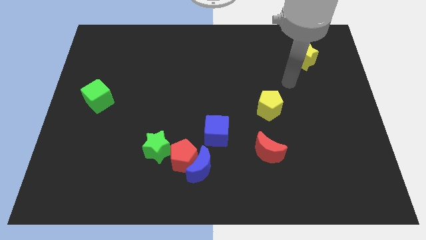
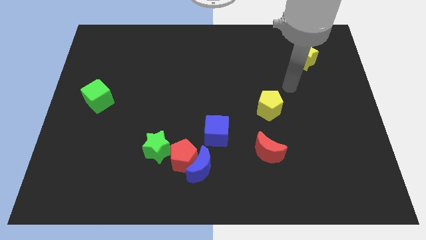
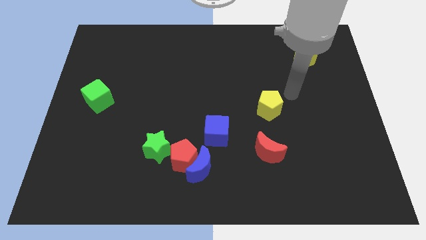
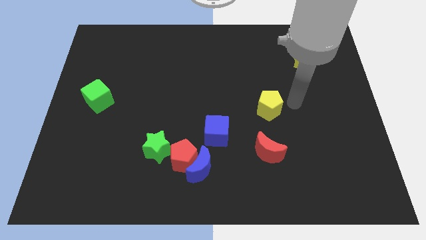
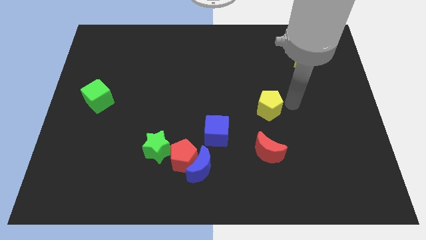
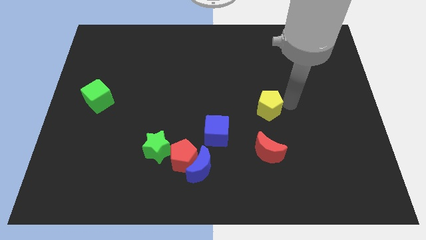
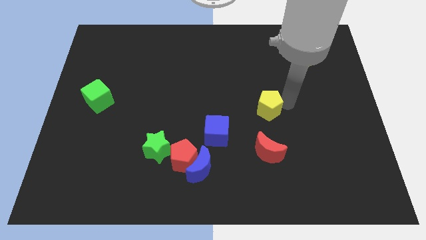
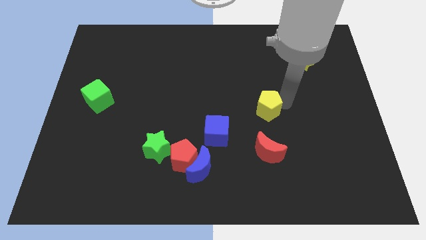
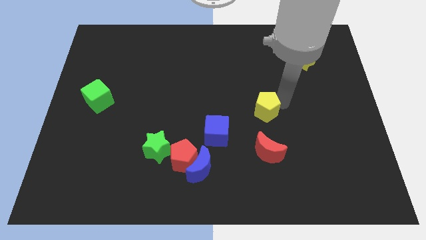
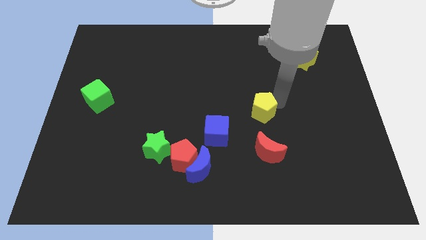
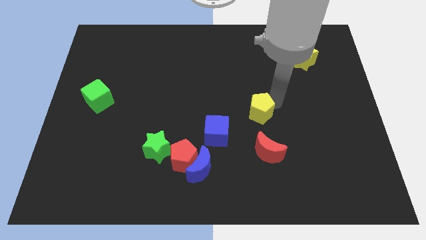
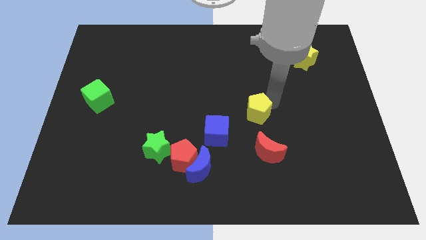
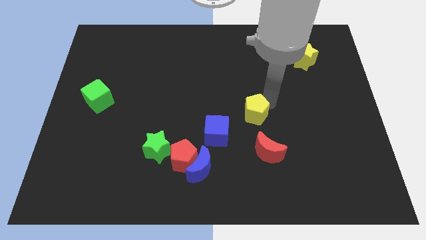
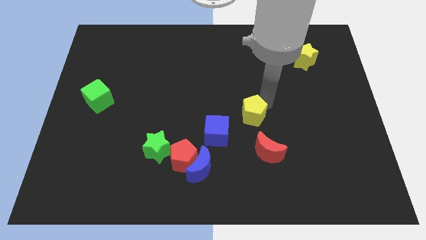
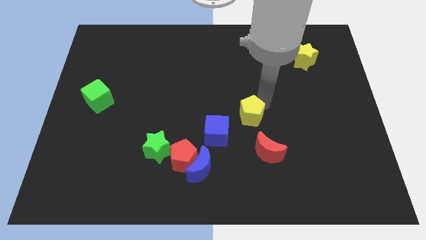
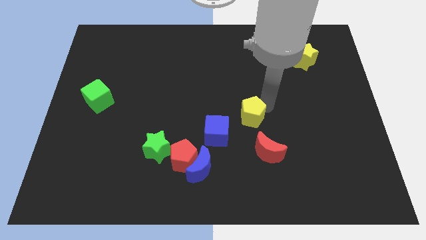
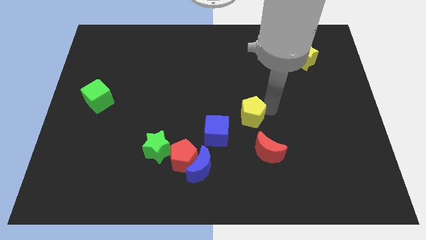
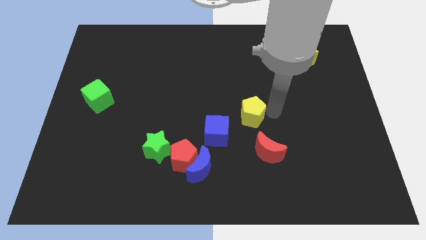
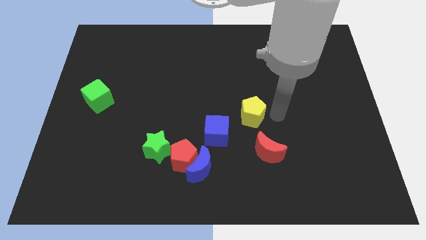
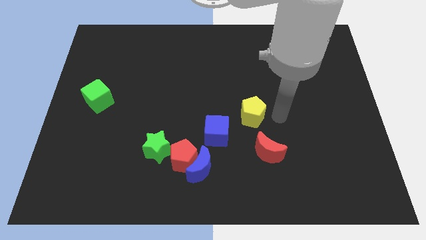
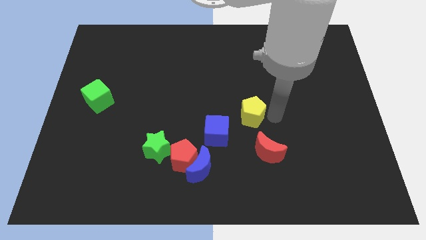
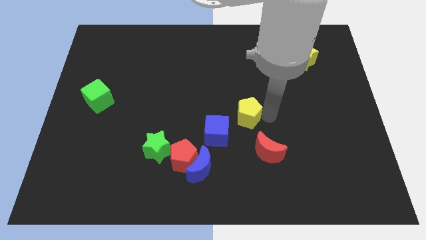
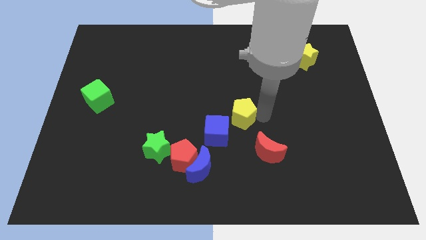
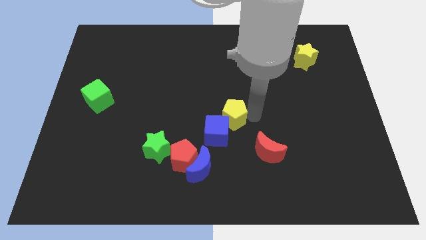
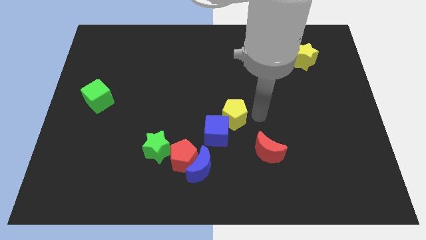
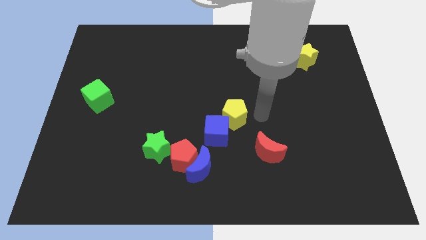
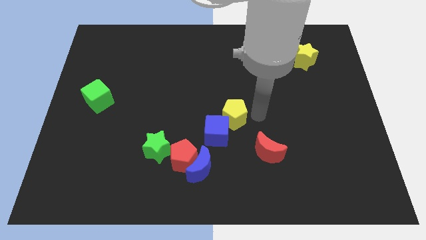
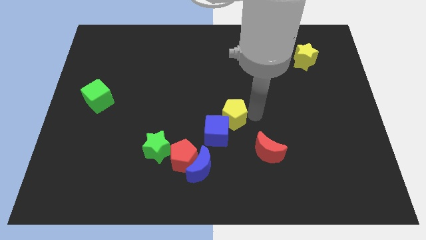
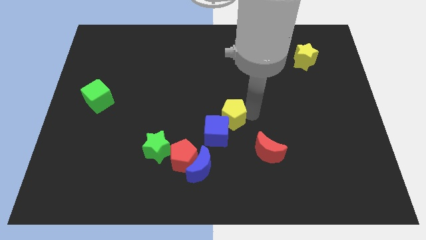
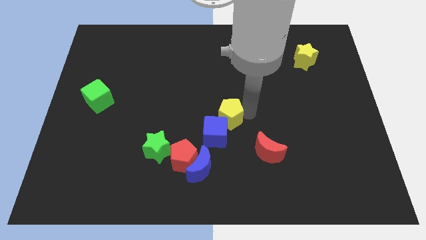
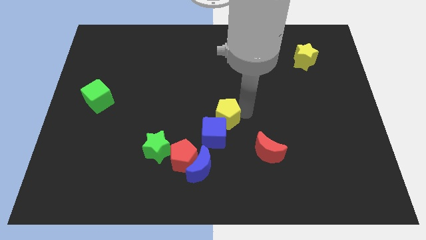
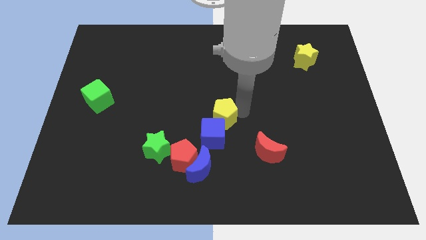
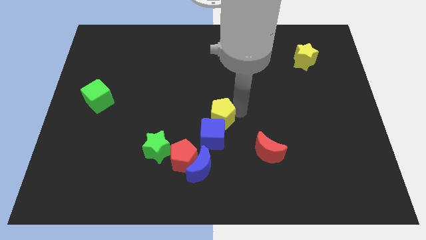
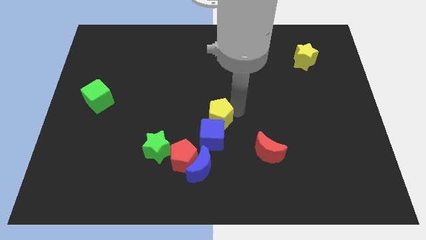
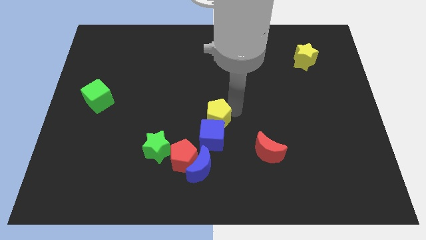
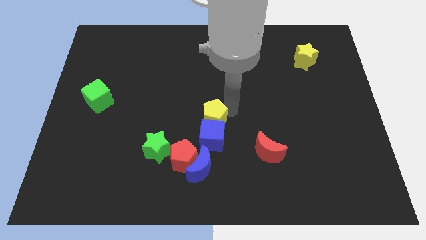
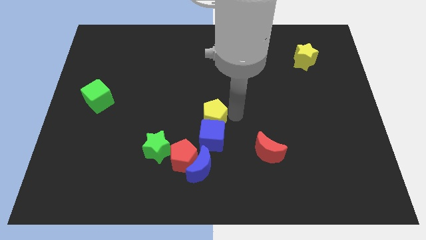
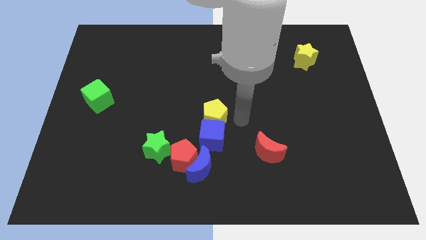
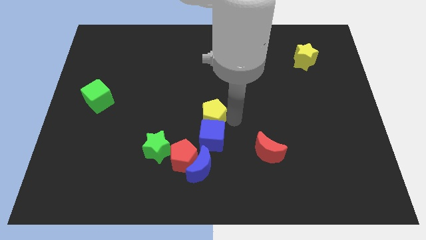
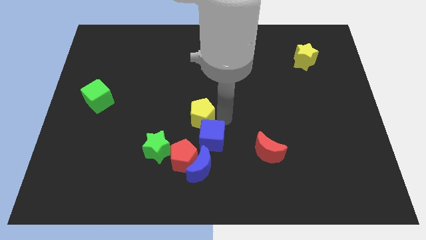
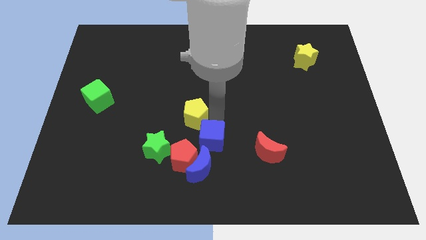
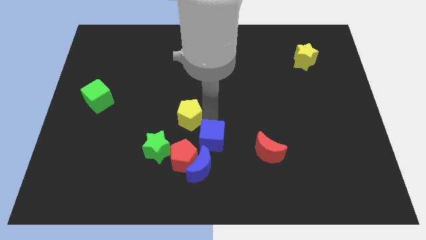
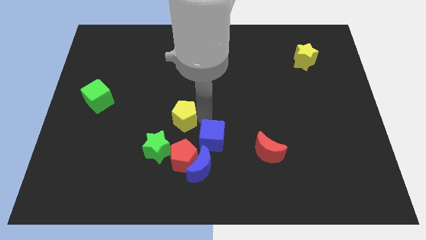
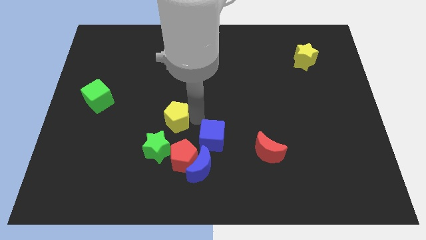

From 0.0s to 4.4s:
move the yellow pentagon to the left

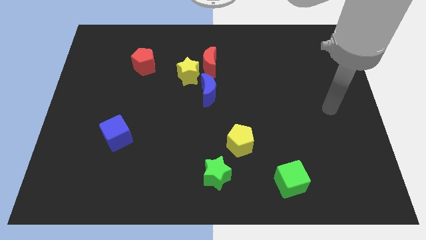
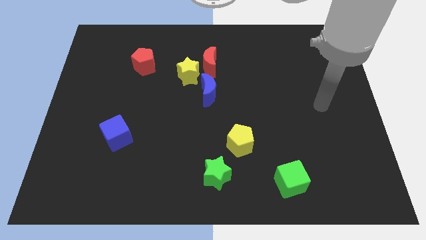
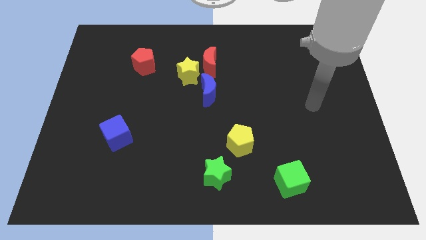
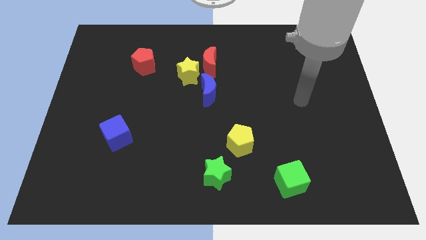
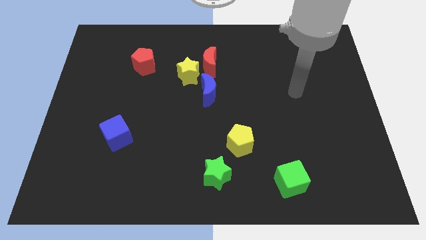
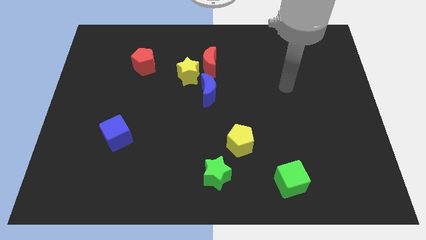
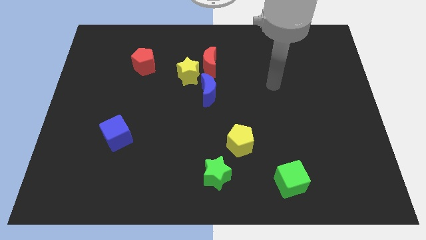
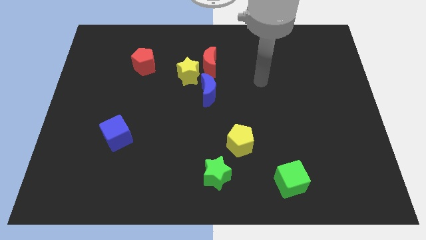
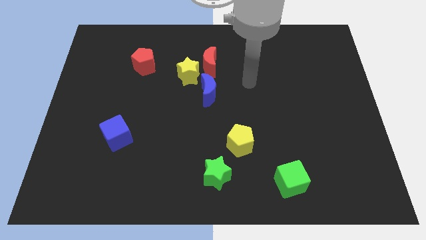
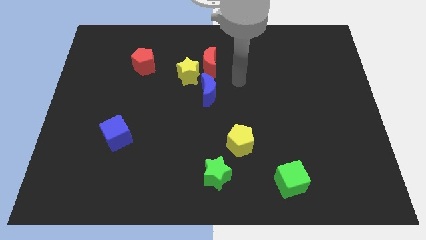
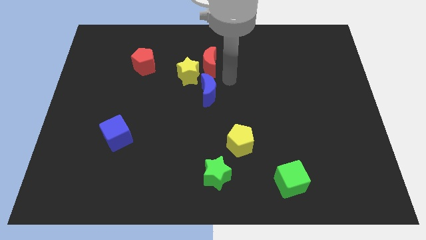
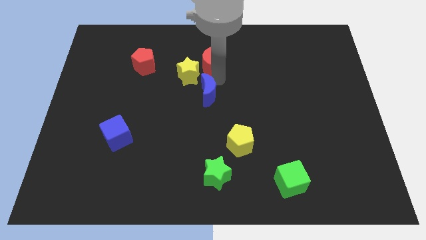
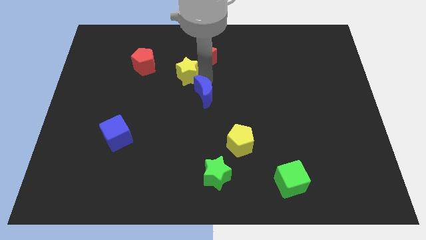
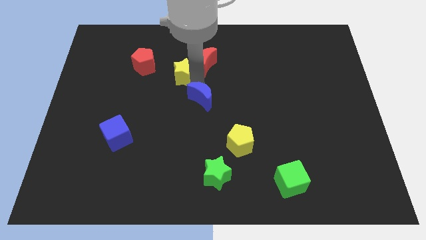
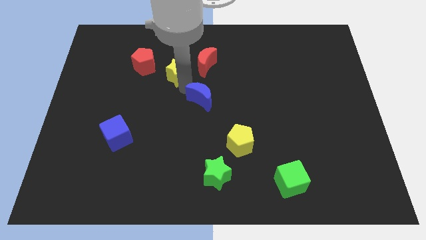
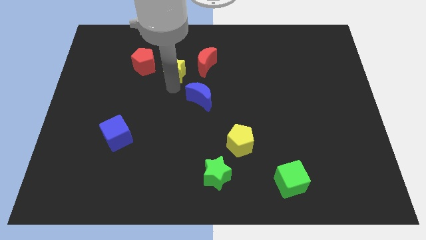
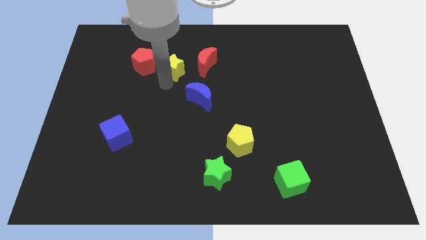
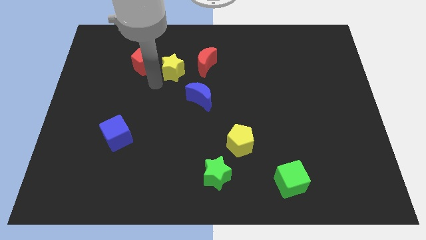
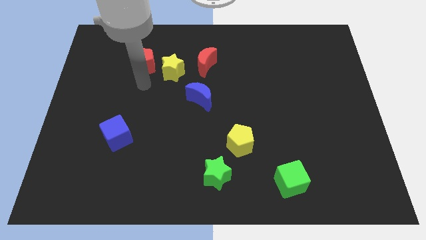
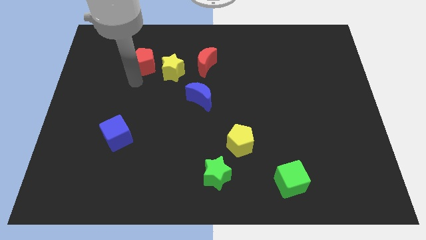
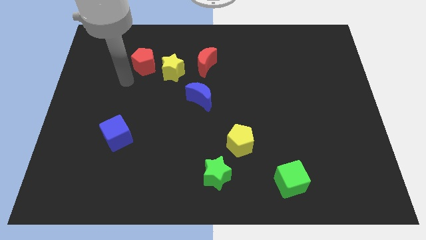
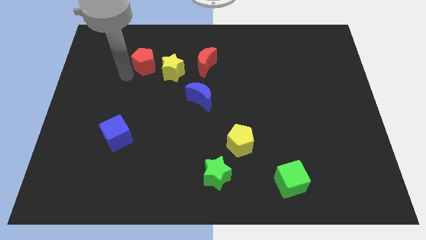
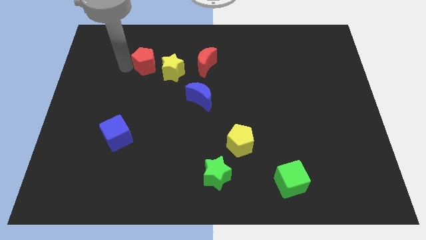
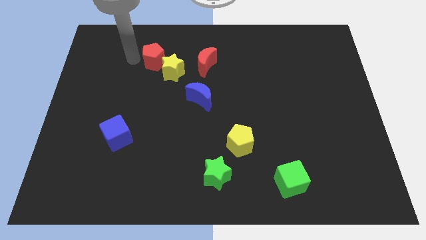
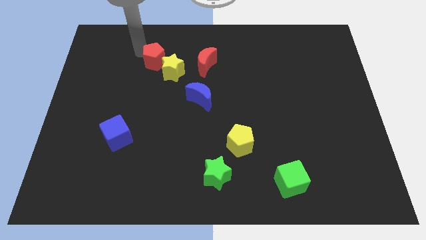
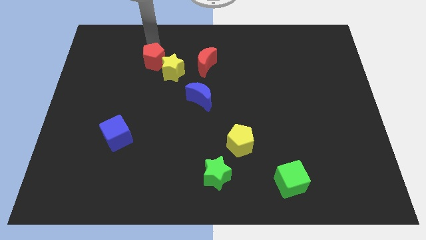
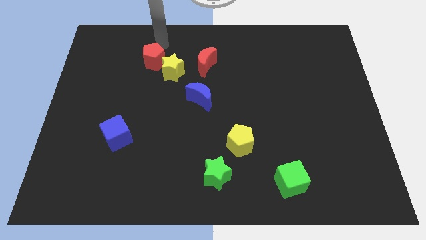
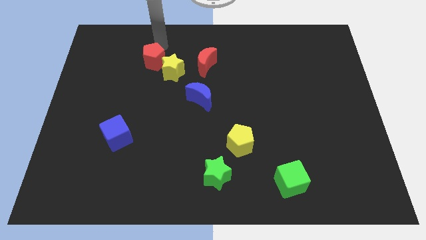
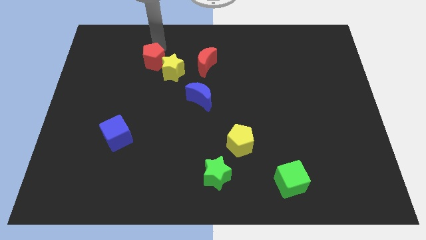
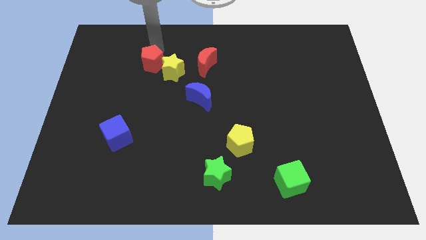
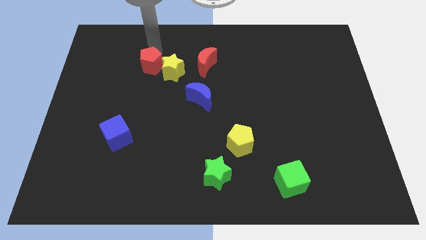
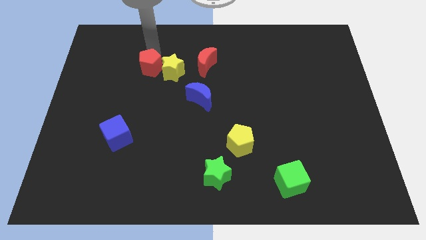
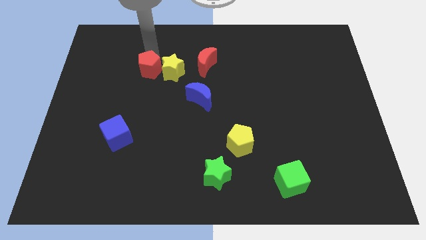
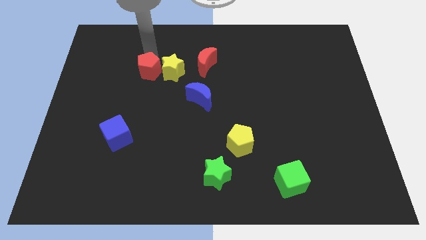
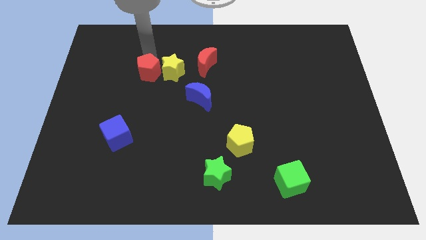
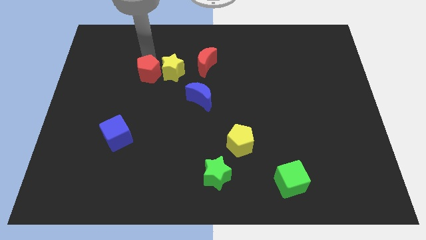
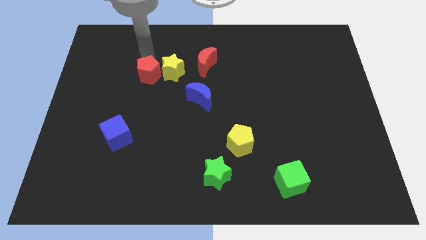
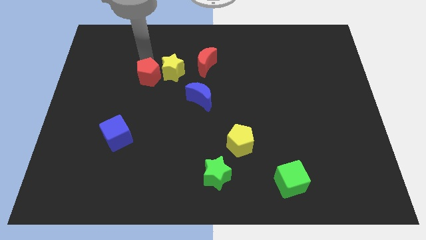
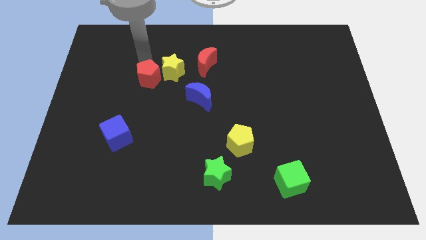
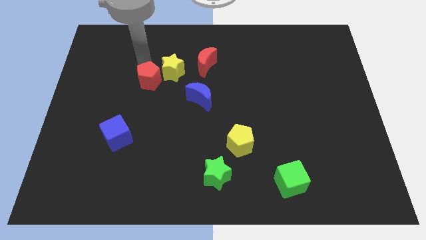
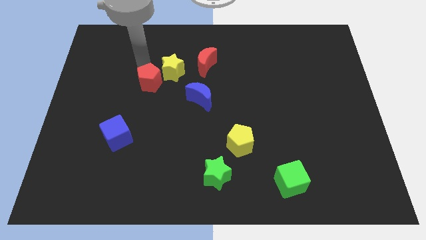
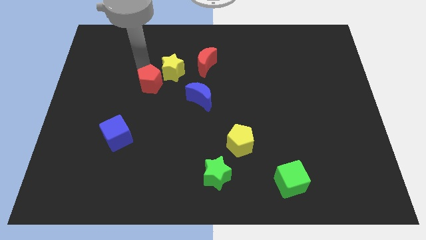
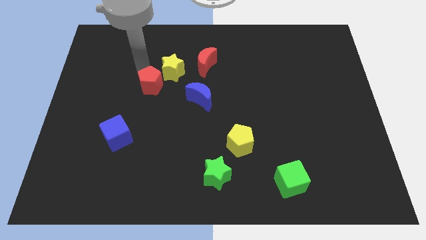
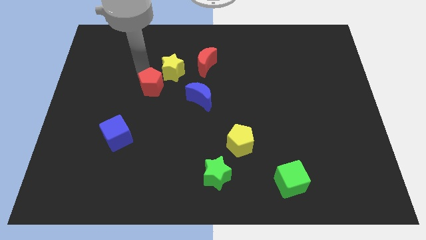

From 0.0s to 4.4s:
slightly slide the red pentagon downwards
